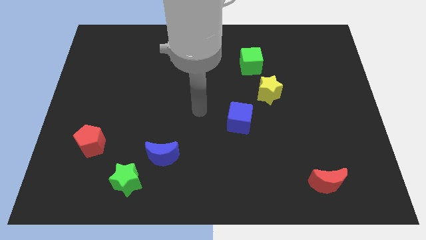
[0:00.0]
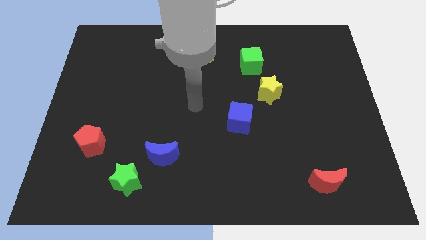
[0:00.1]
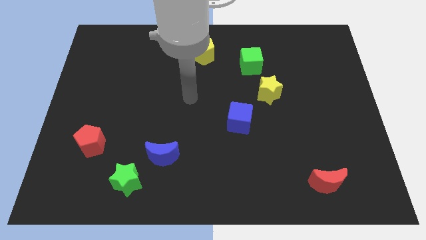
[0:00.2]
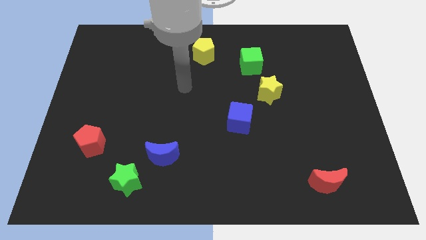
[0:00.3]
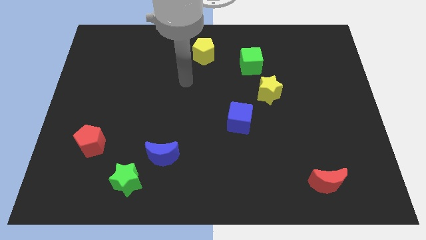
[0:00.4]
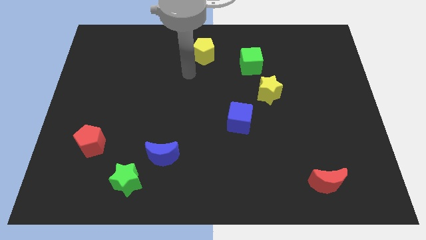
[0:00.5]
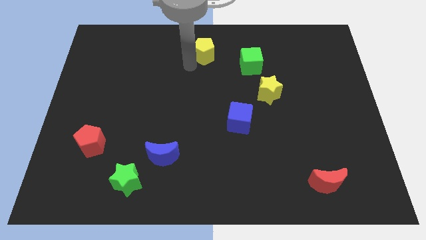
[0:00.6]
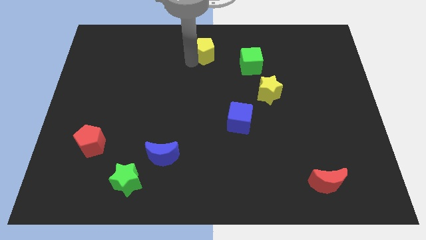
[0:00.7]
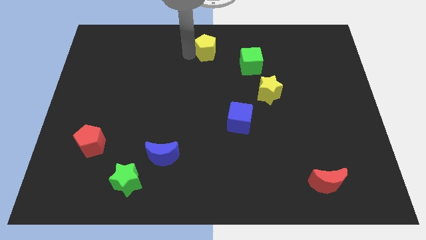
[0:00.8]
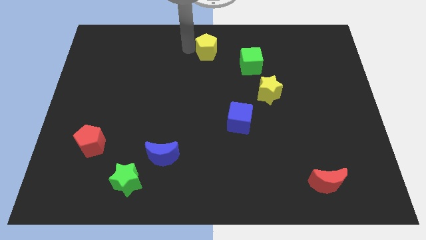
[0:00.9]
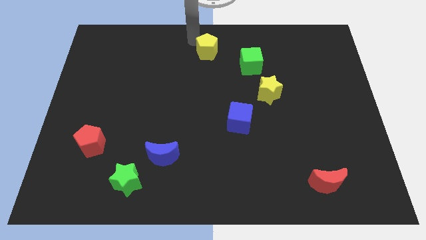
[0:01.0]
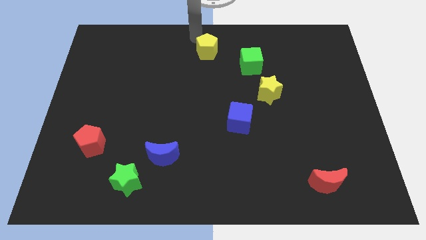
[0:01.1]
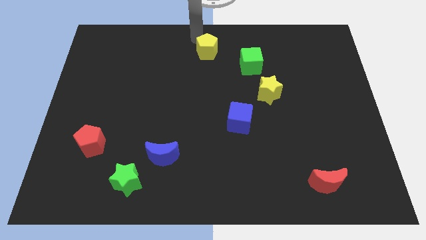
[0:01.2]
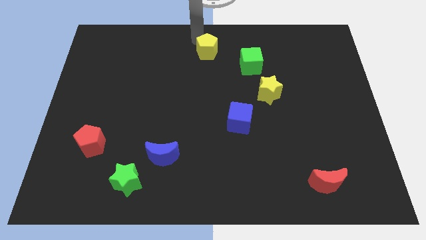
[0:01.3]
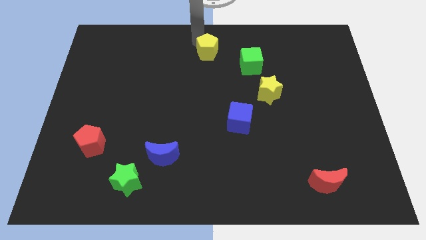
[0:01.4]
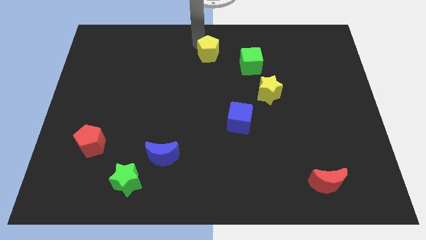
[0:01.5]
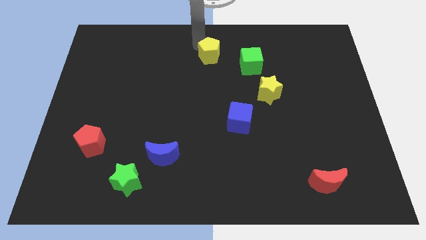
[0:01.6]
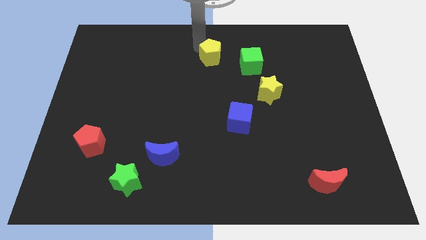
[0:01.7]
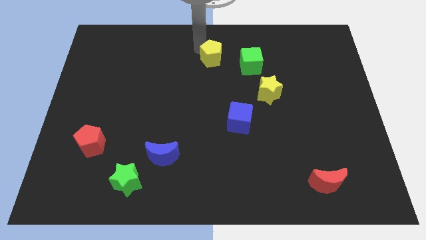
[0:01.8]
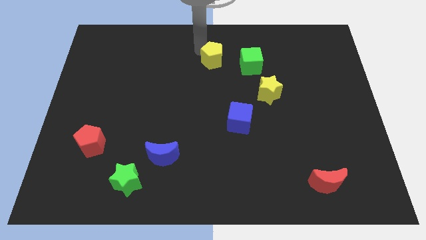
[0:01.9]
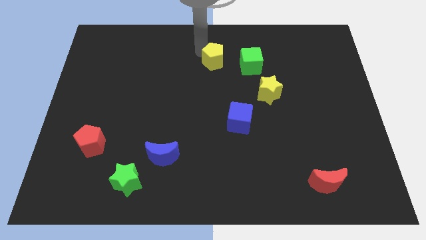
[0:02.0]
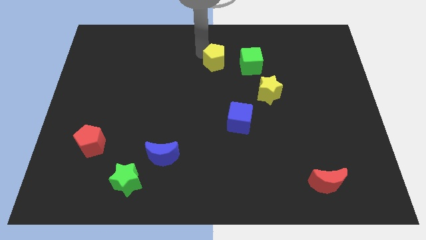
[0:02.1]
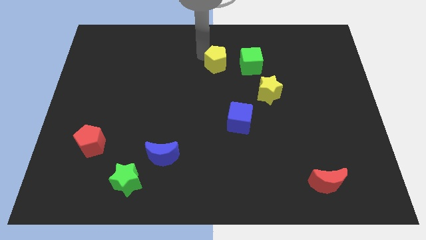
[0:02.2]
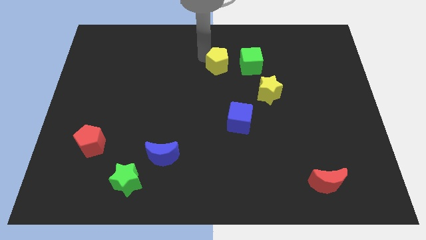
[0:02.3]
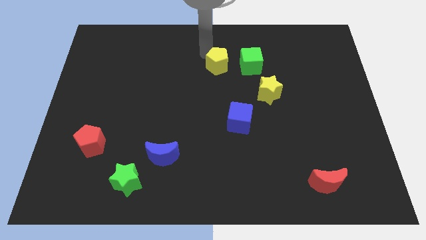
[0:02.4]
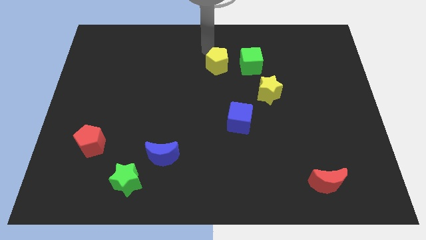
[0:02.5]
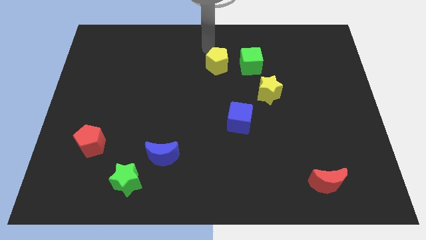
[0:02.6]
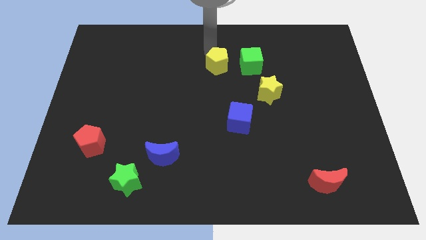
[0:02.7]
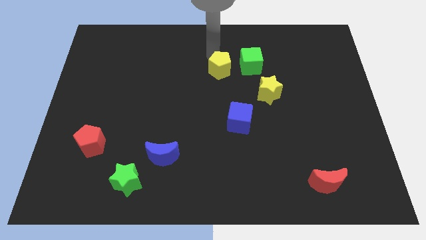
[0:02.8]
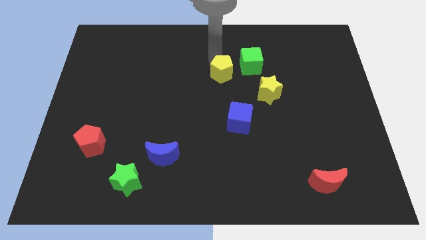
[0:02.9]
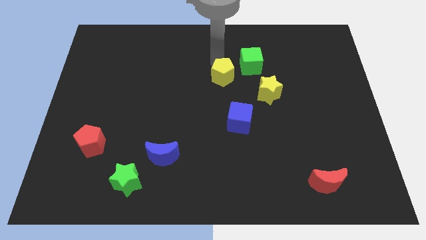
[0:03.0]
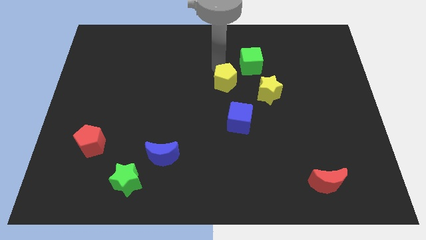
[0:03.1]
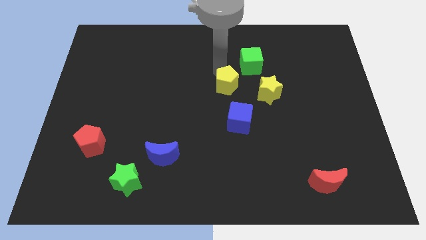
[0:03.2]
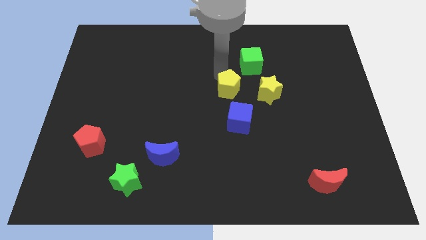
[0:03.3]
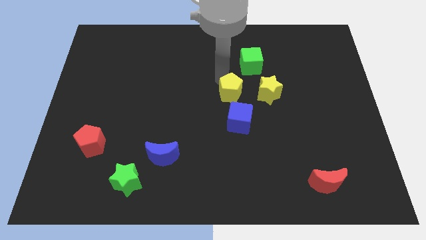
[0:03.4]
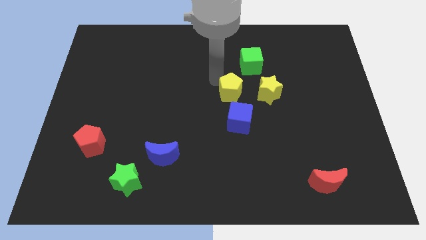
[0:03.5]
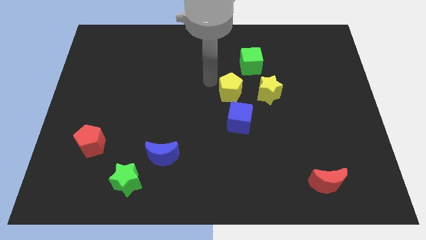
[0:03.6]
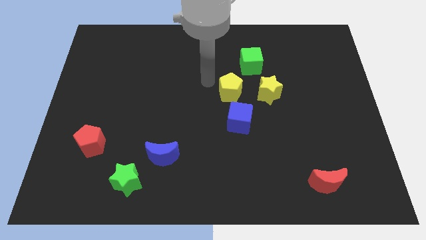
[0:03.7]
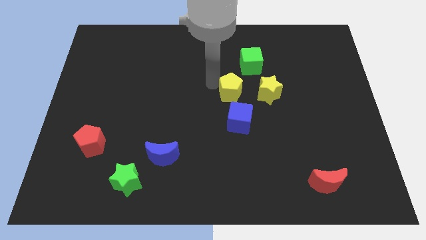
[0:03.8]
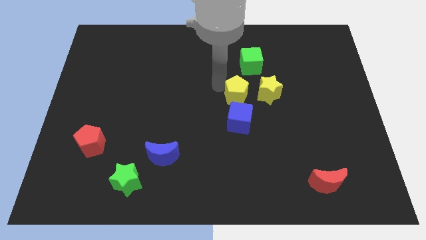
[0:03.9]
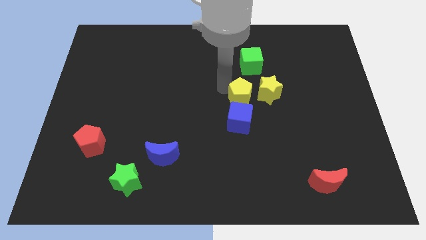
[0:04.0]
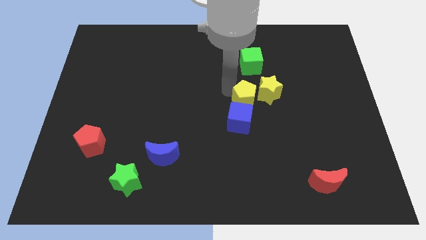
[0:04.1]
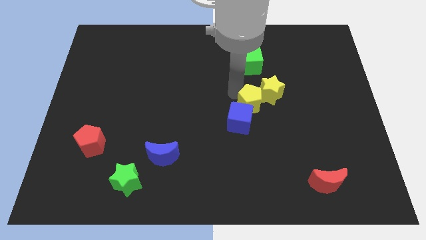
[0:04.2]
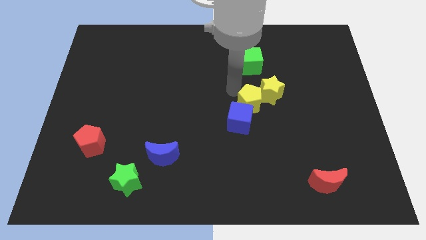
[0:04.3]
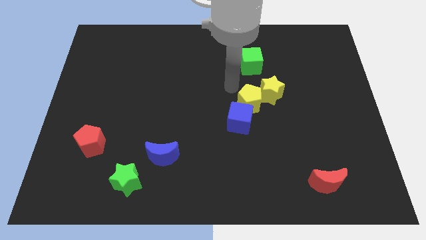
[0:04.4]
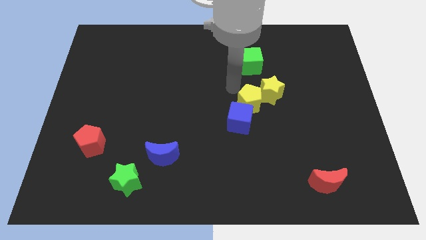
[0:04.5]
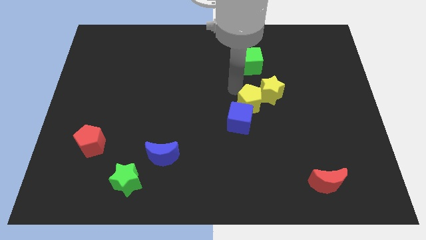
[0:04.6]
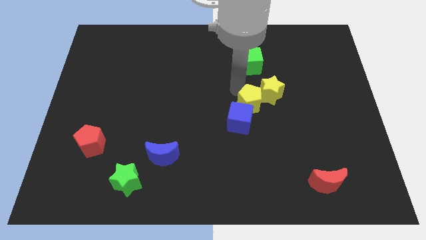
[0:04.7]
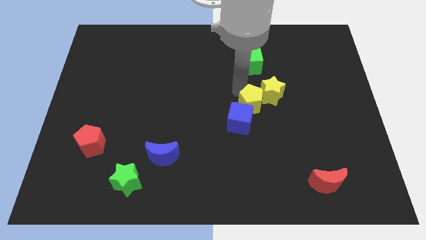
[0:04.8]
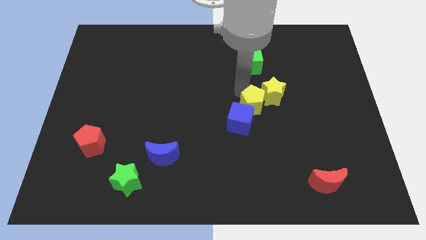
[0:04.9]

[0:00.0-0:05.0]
move the yellow pentagon downwards and right

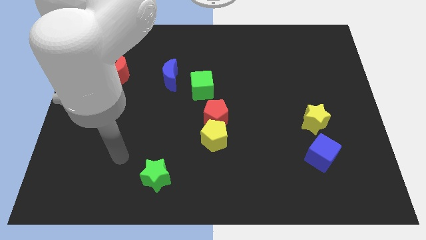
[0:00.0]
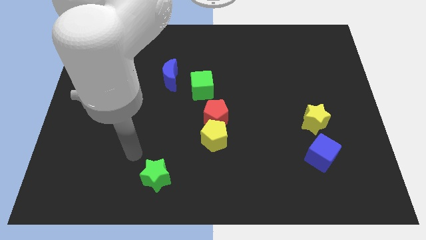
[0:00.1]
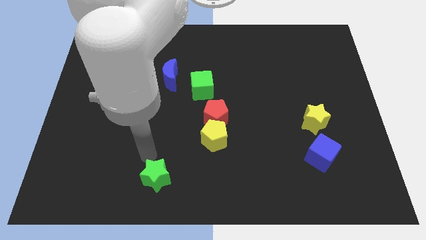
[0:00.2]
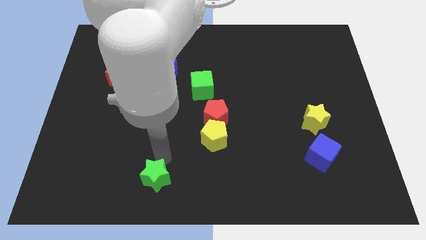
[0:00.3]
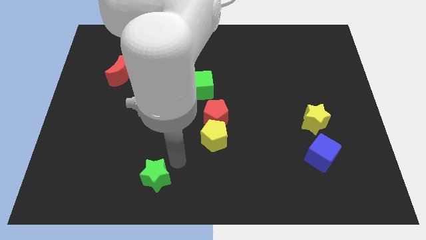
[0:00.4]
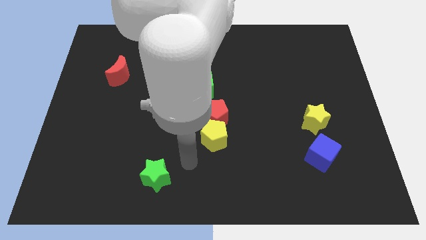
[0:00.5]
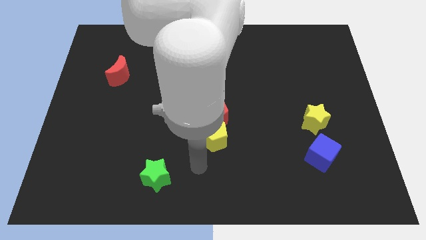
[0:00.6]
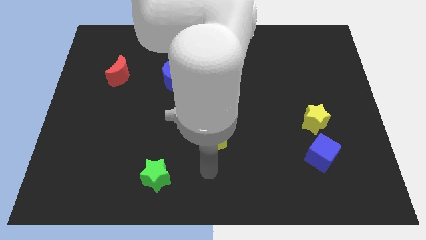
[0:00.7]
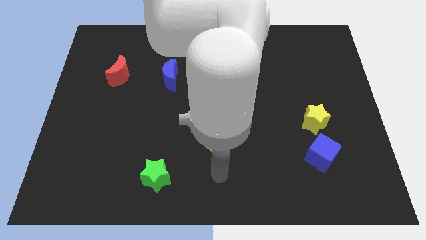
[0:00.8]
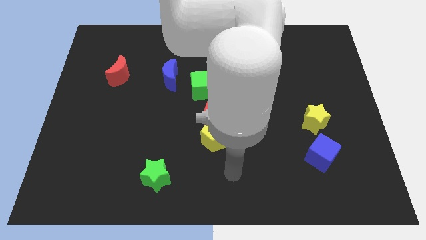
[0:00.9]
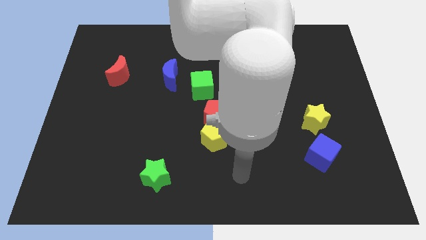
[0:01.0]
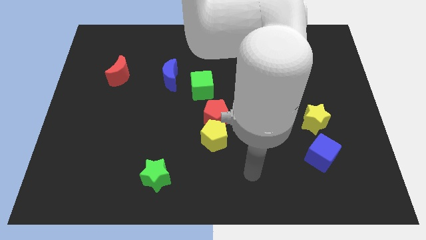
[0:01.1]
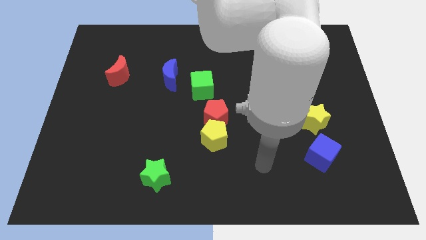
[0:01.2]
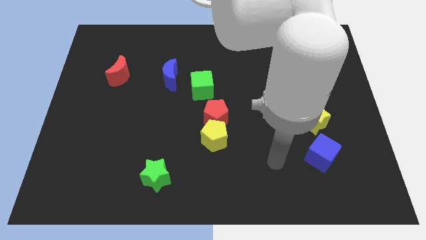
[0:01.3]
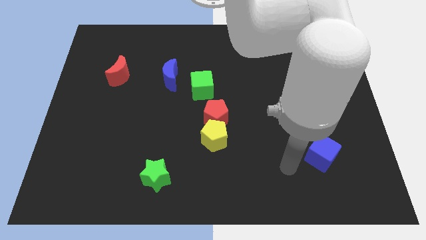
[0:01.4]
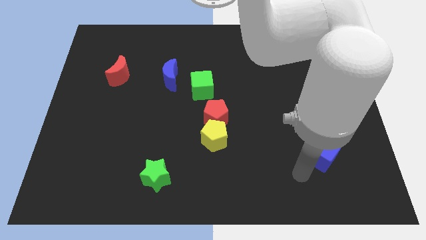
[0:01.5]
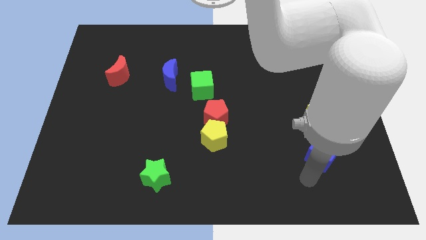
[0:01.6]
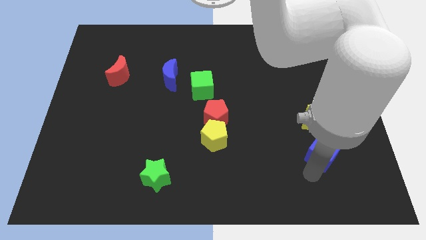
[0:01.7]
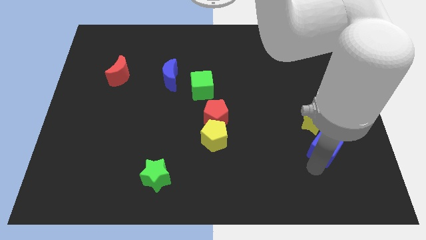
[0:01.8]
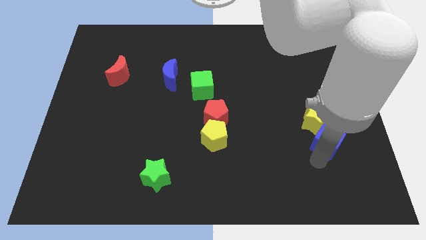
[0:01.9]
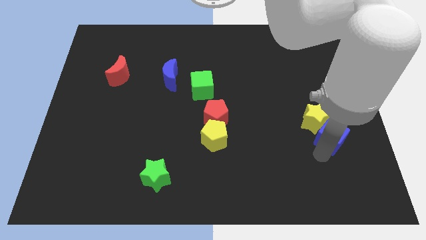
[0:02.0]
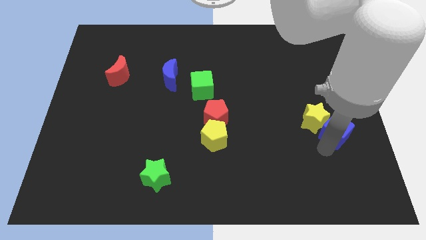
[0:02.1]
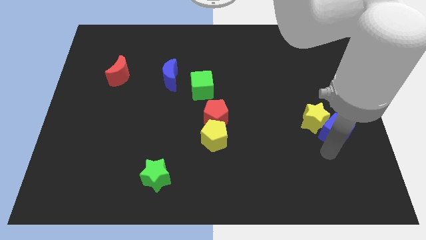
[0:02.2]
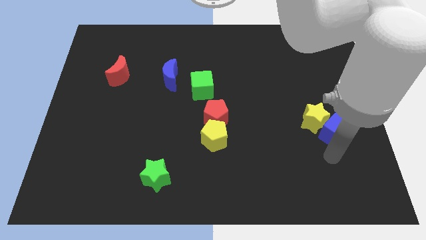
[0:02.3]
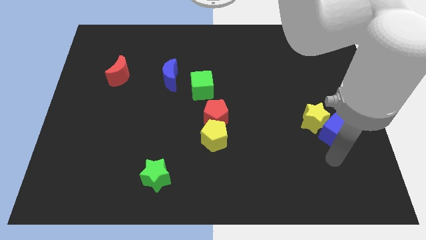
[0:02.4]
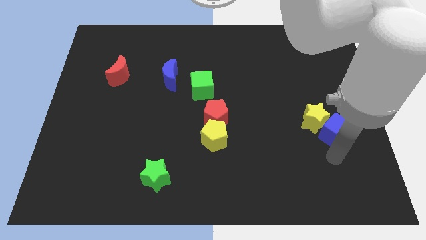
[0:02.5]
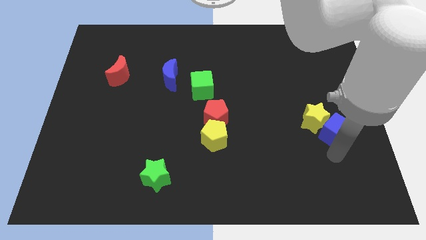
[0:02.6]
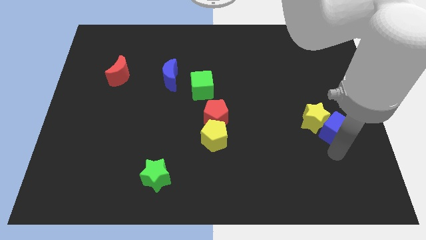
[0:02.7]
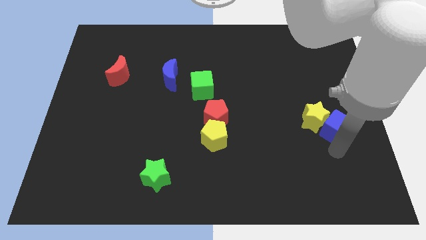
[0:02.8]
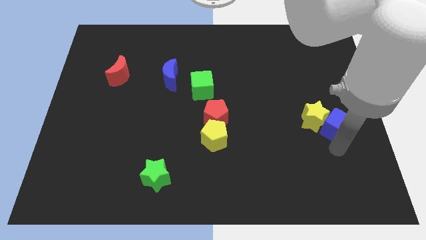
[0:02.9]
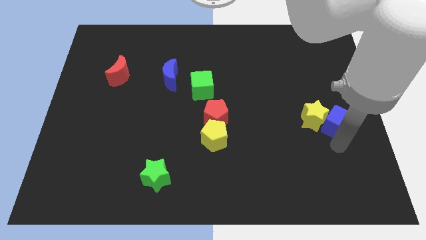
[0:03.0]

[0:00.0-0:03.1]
move the blue cube somewhat upwards
